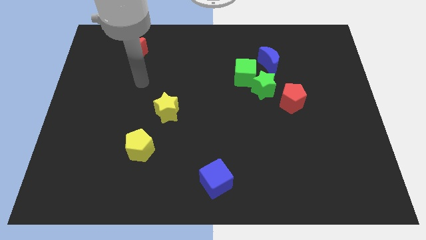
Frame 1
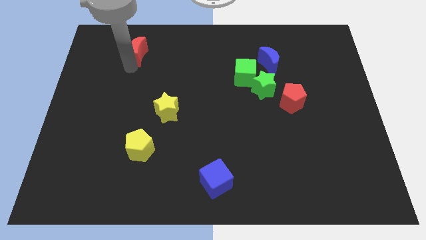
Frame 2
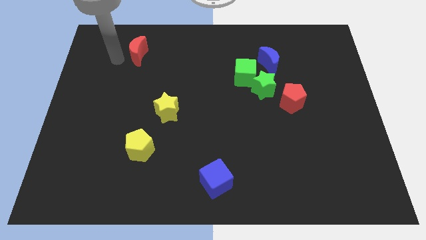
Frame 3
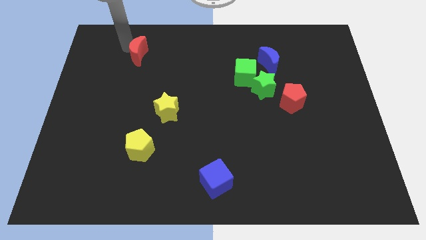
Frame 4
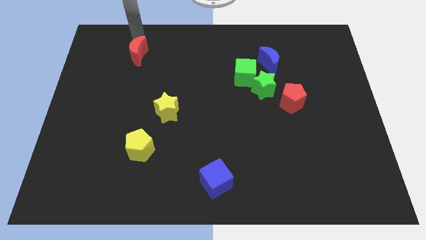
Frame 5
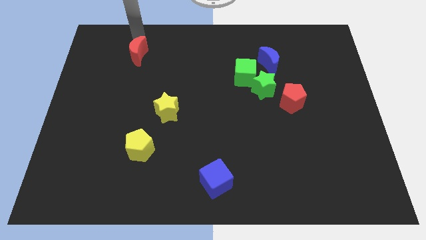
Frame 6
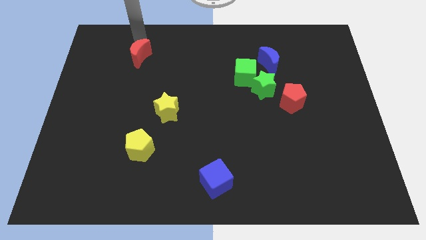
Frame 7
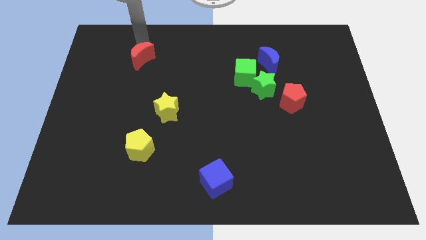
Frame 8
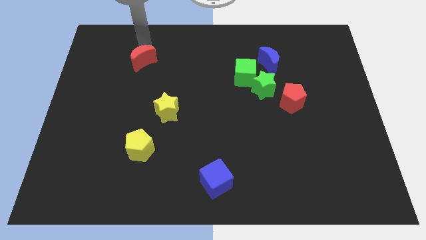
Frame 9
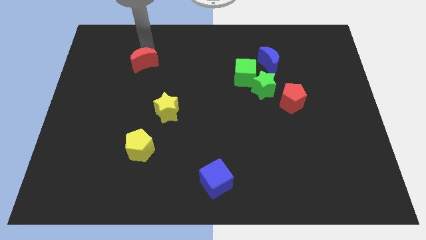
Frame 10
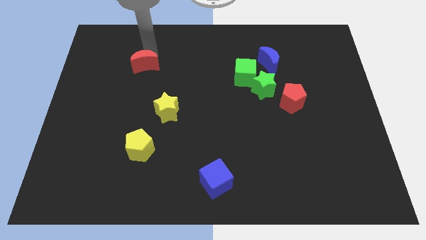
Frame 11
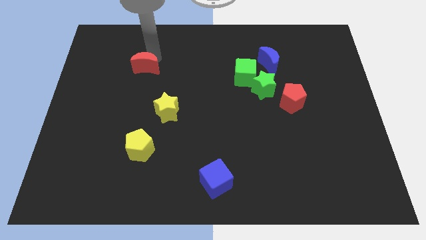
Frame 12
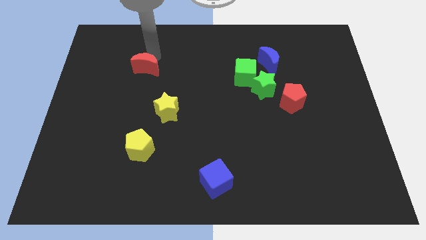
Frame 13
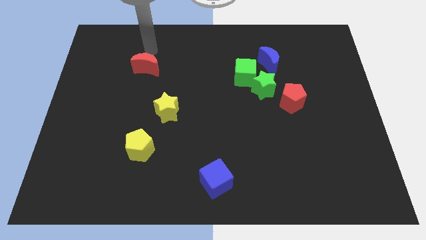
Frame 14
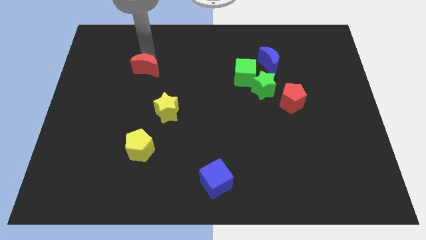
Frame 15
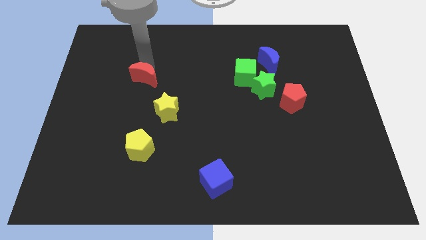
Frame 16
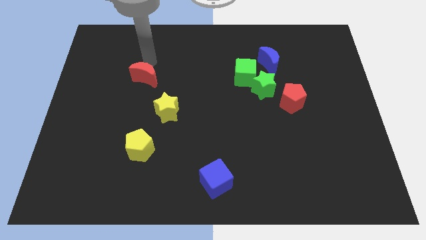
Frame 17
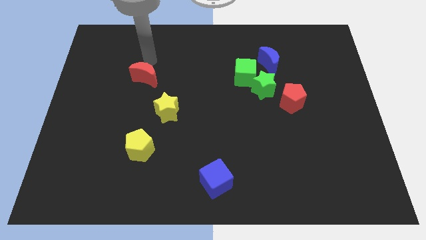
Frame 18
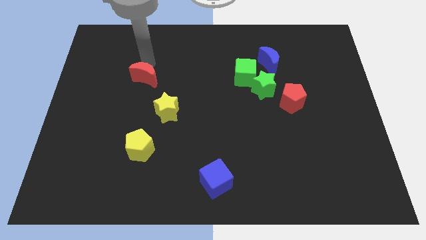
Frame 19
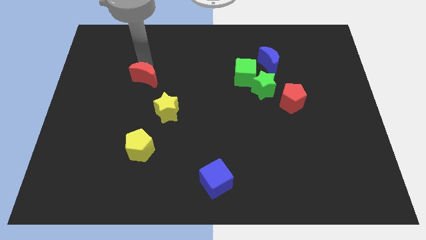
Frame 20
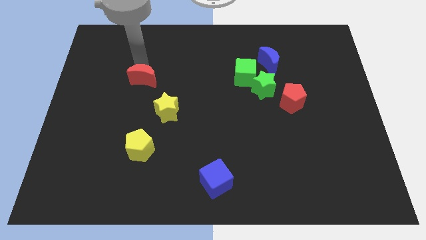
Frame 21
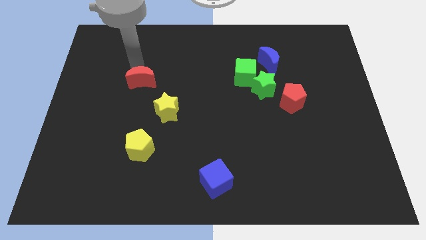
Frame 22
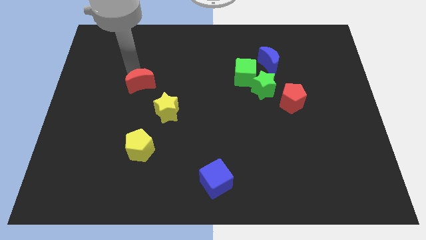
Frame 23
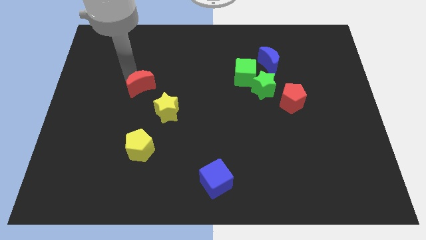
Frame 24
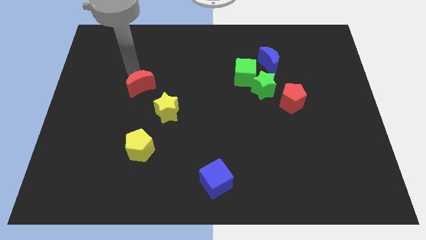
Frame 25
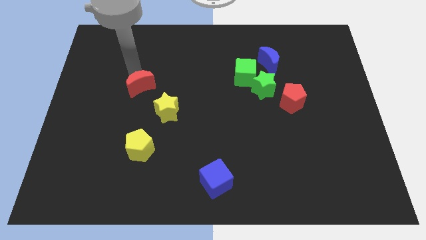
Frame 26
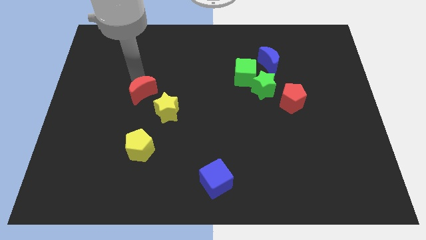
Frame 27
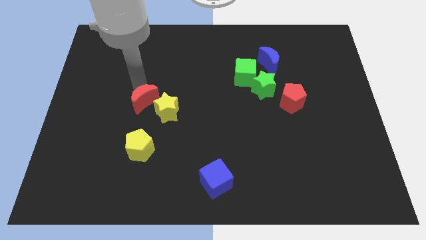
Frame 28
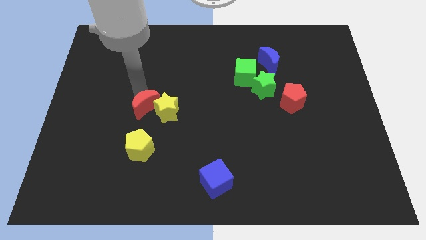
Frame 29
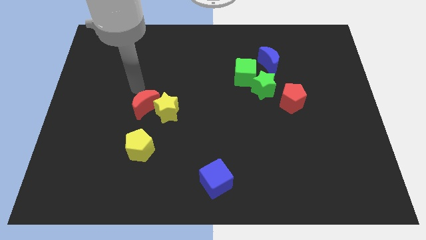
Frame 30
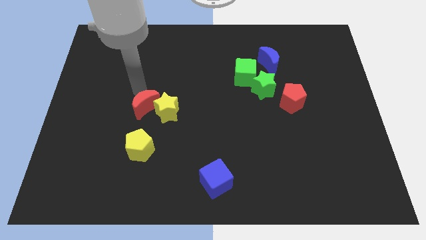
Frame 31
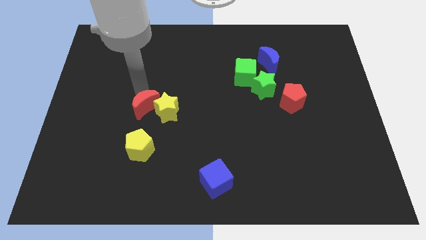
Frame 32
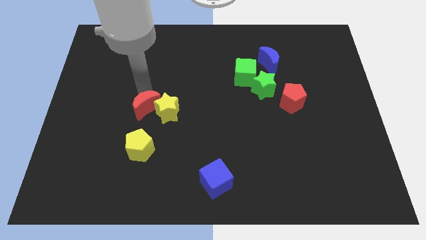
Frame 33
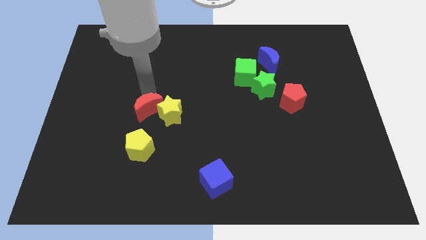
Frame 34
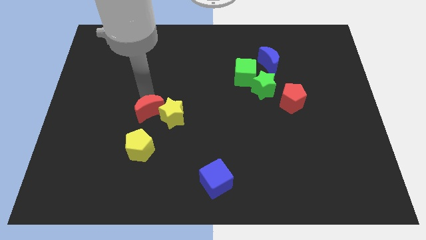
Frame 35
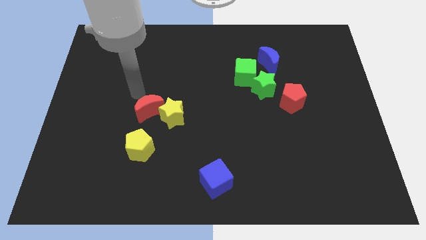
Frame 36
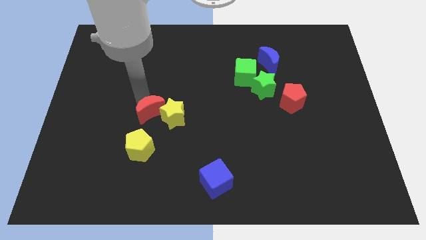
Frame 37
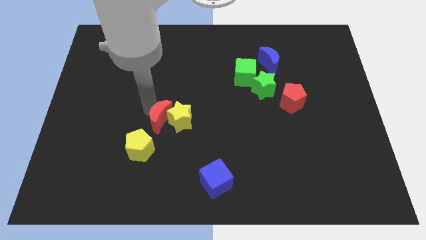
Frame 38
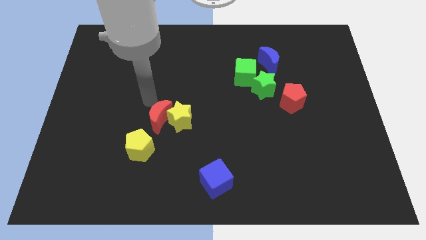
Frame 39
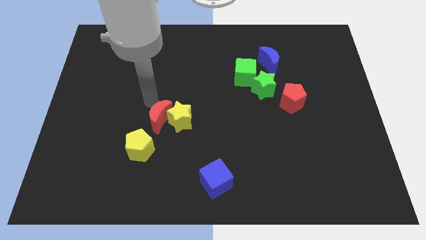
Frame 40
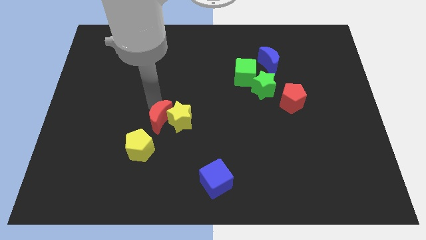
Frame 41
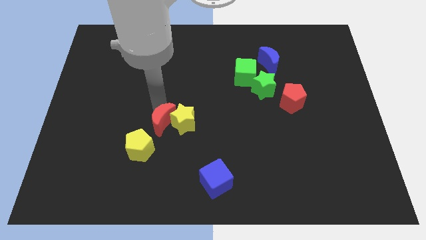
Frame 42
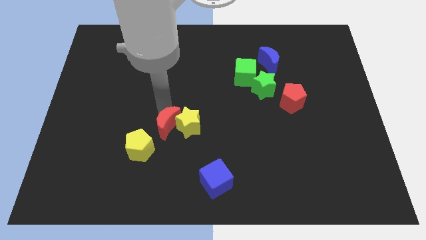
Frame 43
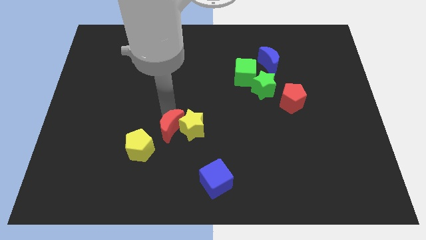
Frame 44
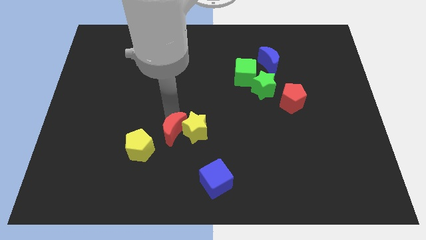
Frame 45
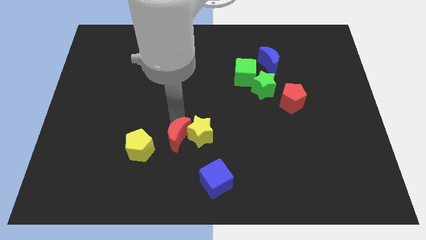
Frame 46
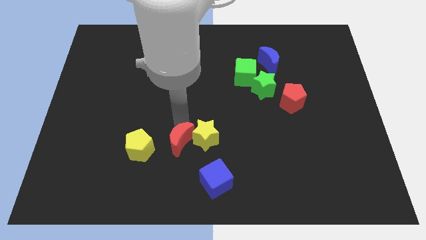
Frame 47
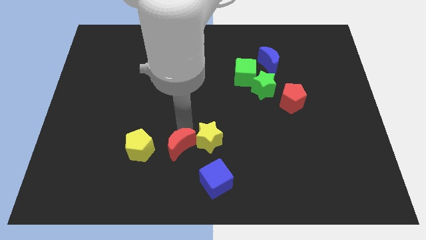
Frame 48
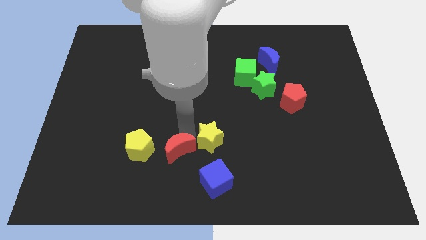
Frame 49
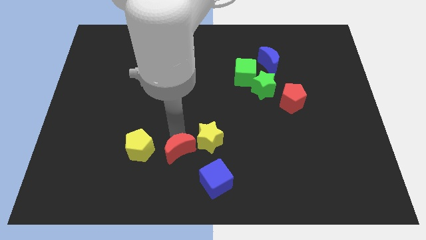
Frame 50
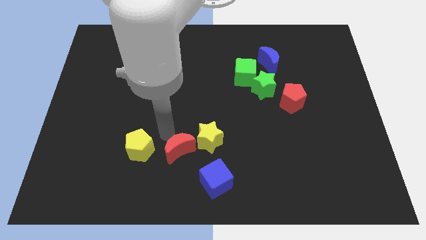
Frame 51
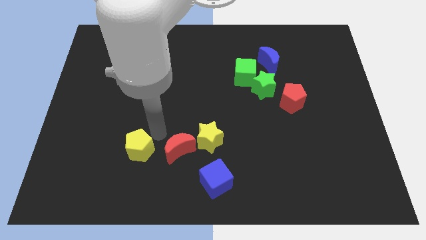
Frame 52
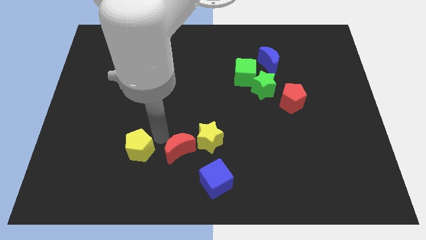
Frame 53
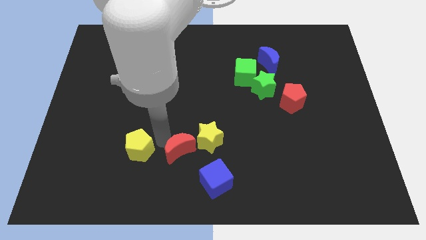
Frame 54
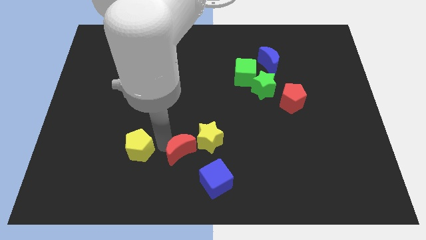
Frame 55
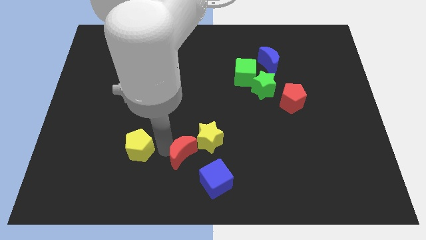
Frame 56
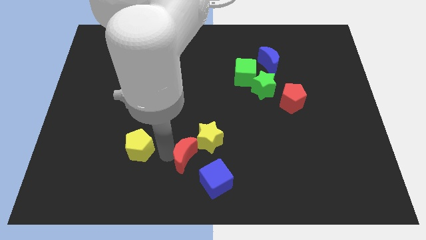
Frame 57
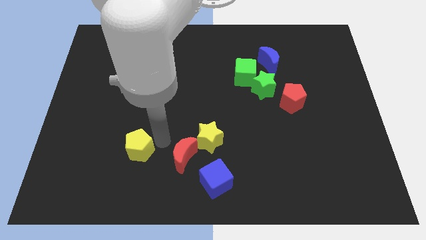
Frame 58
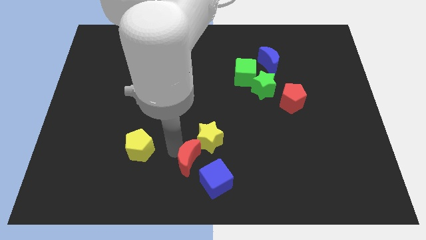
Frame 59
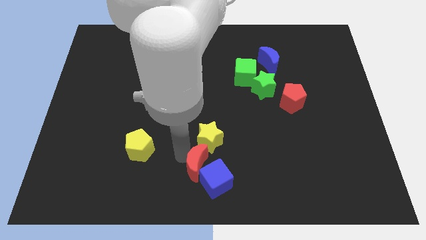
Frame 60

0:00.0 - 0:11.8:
move the red moon close to the blue cube

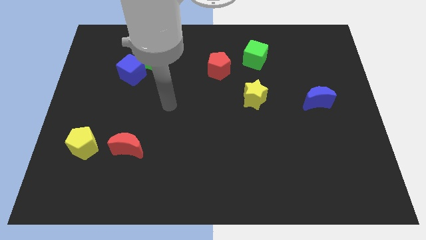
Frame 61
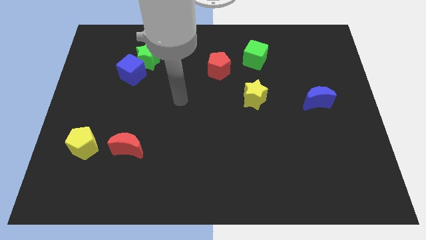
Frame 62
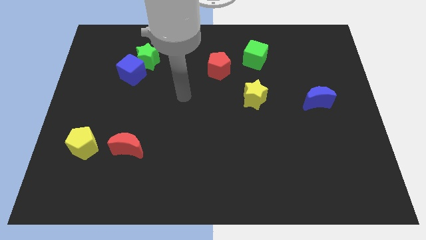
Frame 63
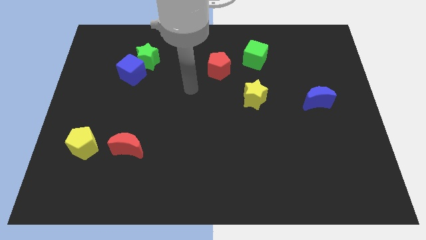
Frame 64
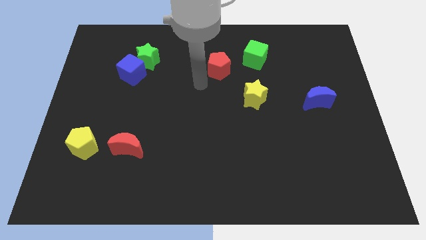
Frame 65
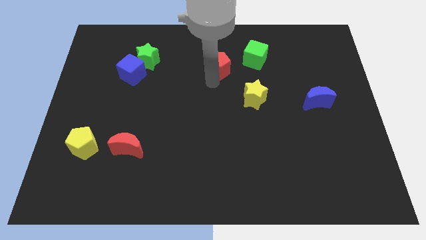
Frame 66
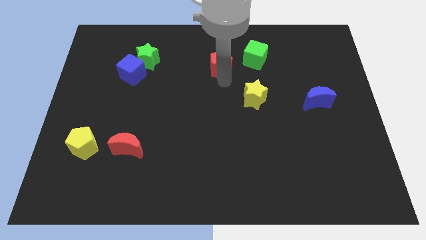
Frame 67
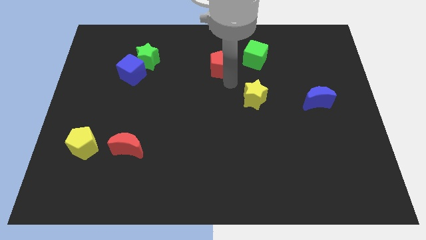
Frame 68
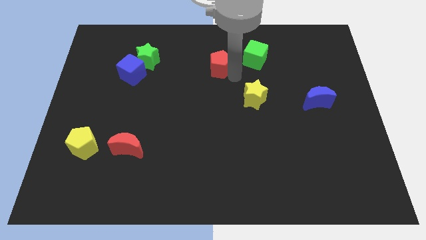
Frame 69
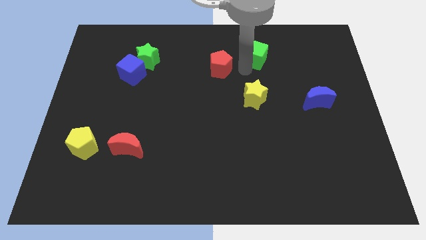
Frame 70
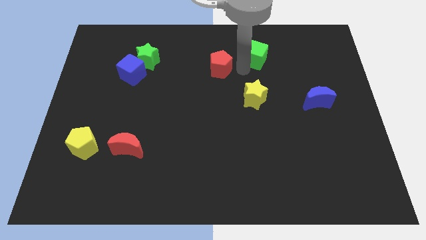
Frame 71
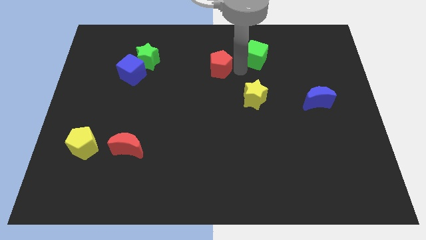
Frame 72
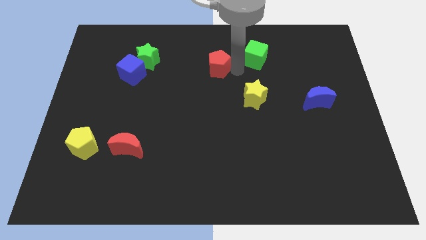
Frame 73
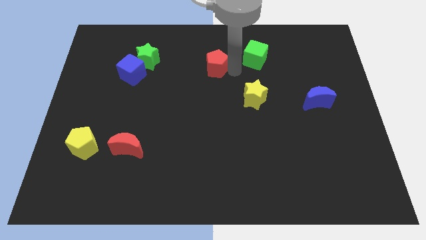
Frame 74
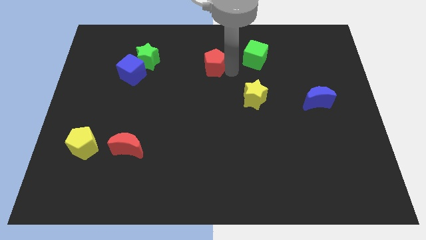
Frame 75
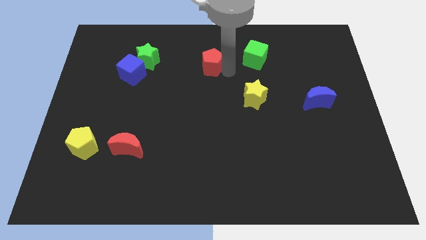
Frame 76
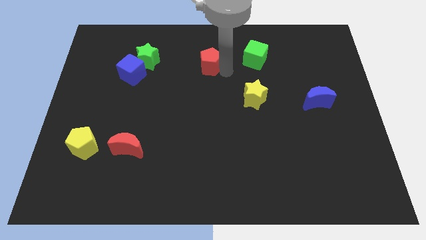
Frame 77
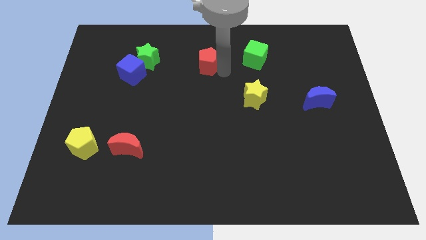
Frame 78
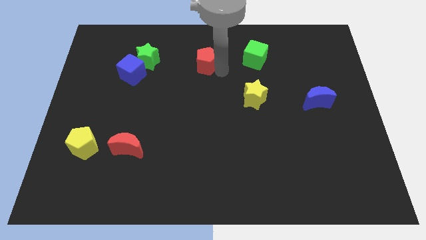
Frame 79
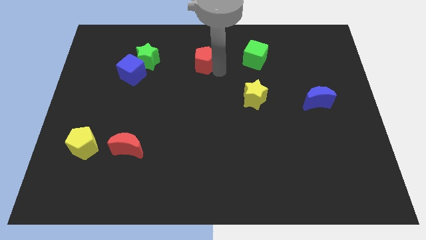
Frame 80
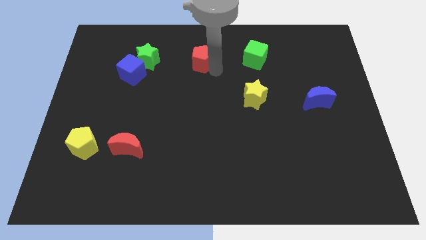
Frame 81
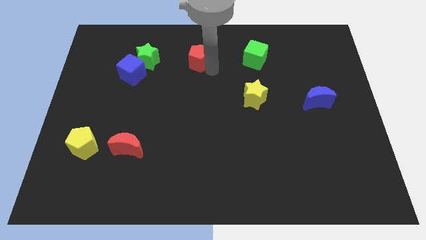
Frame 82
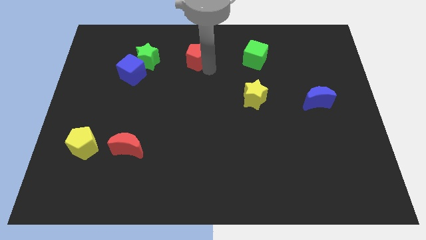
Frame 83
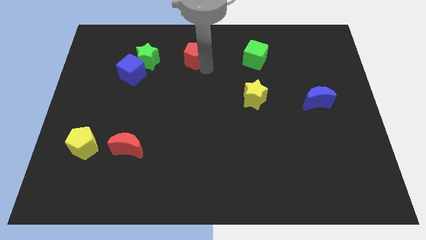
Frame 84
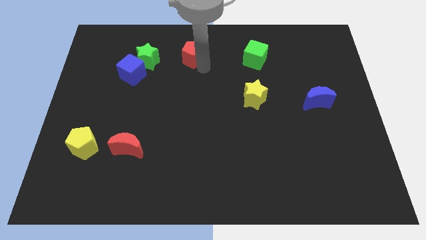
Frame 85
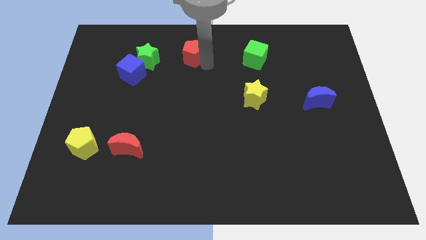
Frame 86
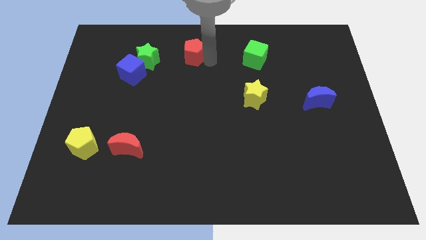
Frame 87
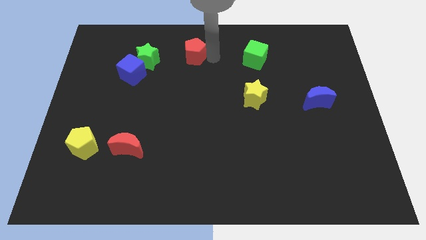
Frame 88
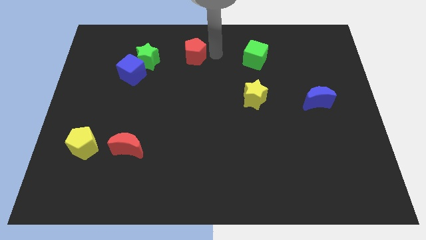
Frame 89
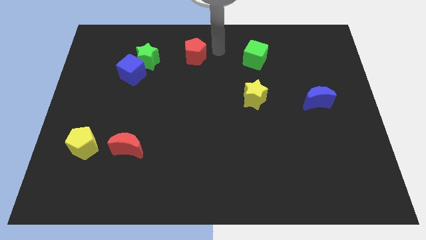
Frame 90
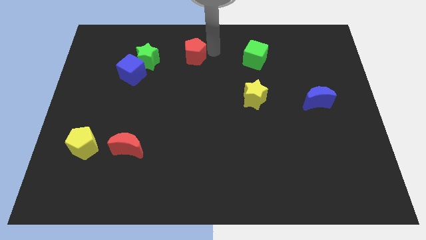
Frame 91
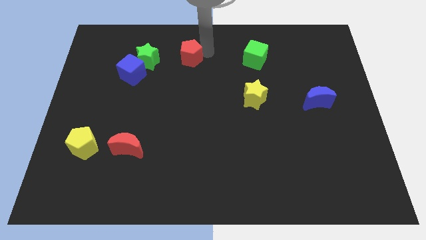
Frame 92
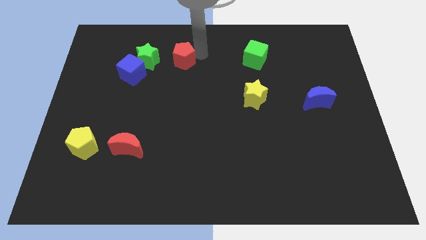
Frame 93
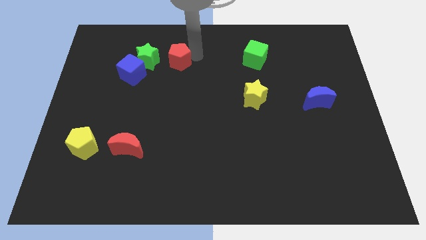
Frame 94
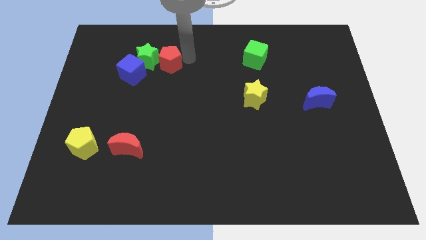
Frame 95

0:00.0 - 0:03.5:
push the red pentagon next to the green star
